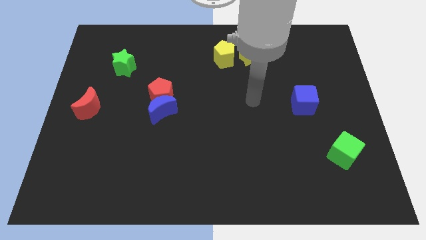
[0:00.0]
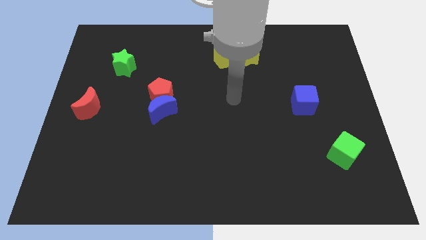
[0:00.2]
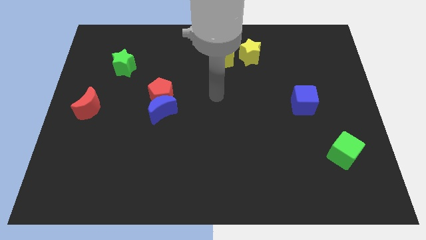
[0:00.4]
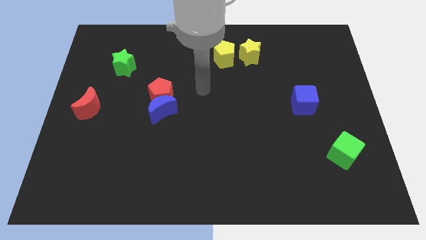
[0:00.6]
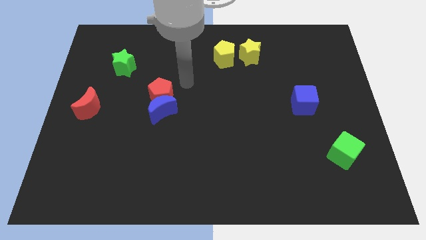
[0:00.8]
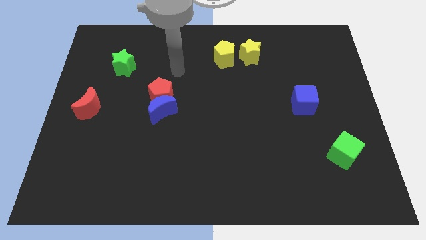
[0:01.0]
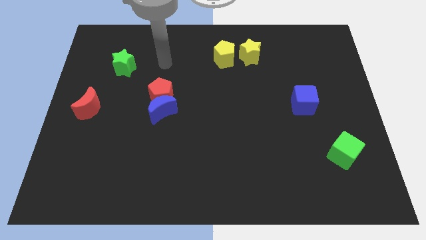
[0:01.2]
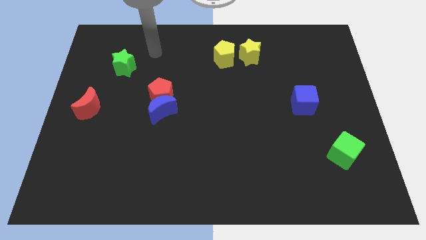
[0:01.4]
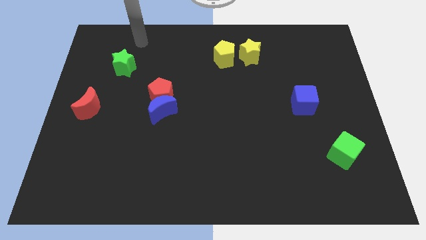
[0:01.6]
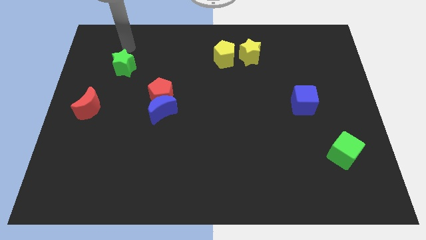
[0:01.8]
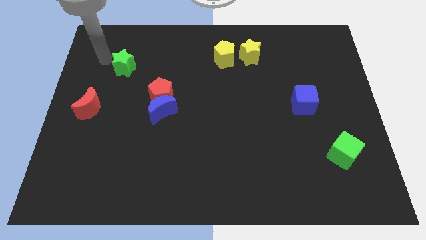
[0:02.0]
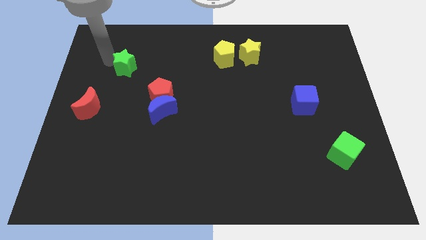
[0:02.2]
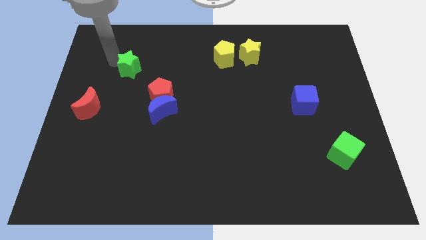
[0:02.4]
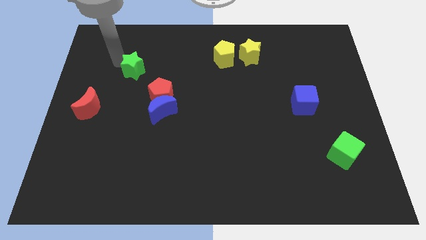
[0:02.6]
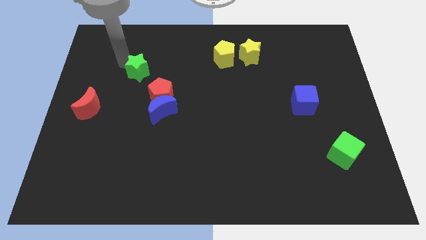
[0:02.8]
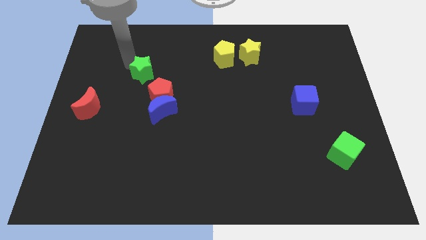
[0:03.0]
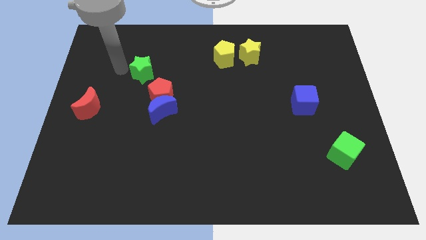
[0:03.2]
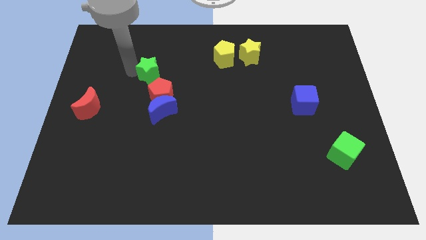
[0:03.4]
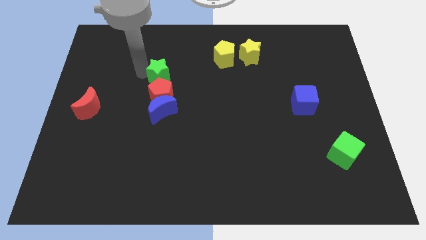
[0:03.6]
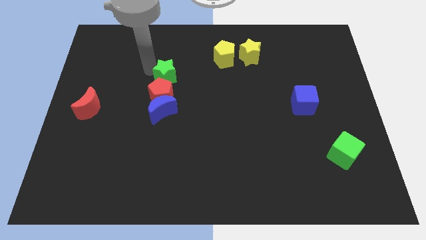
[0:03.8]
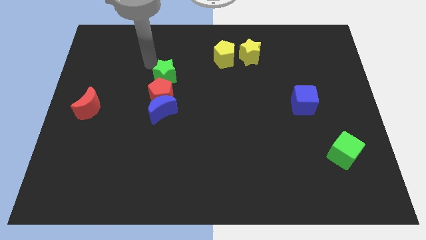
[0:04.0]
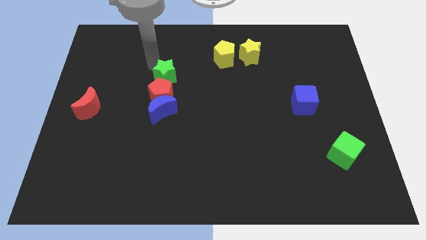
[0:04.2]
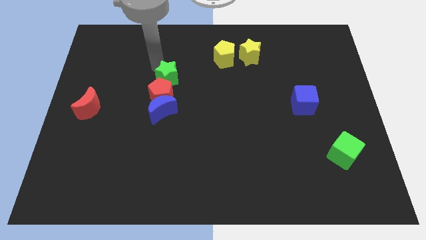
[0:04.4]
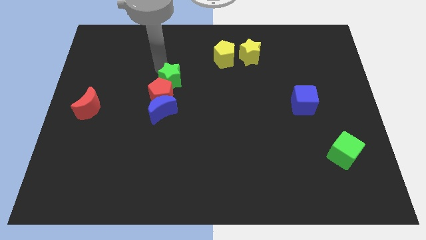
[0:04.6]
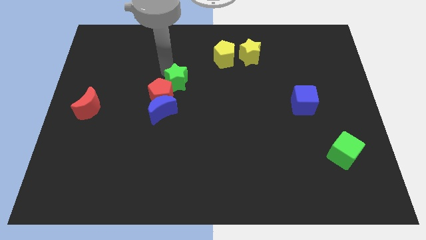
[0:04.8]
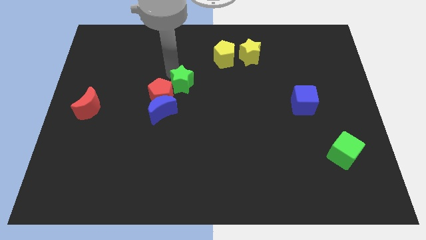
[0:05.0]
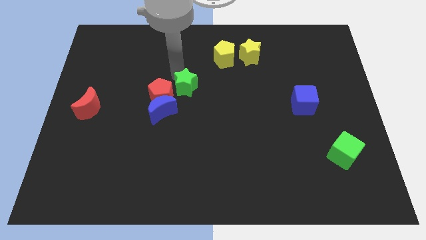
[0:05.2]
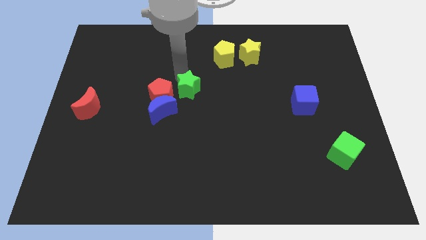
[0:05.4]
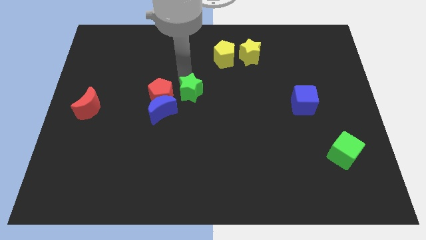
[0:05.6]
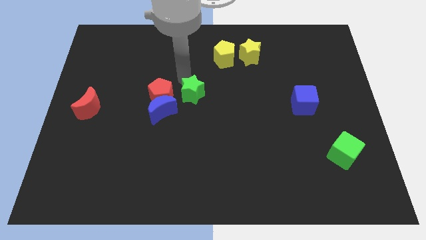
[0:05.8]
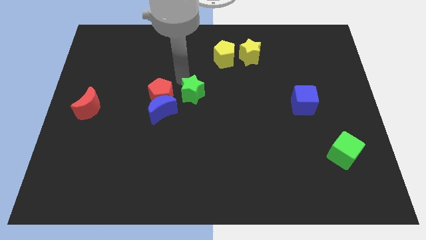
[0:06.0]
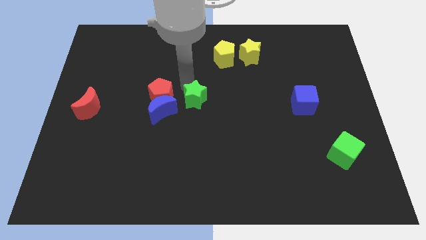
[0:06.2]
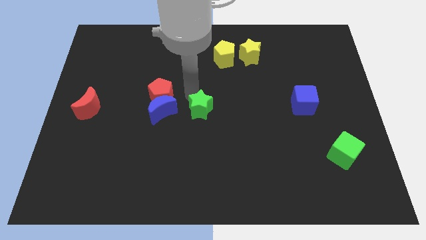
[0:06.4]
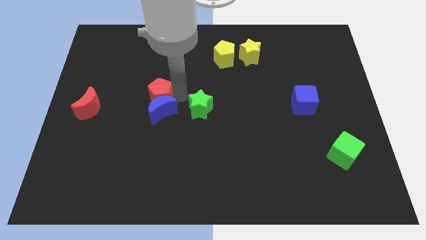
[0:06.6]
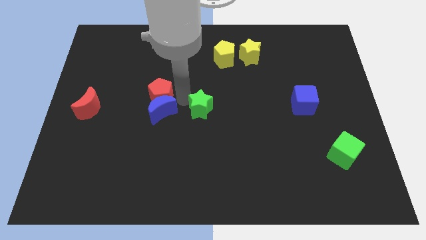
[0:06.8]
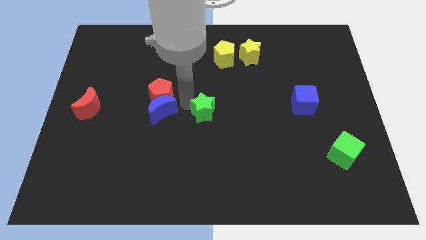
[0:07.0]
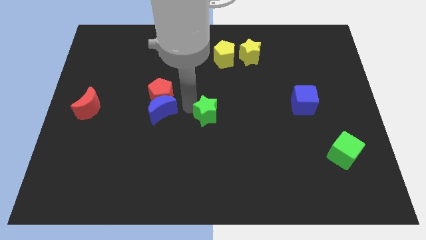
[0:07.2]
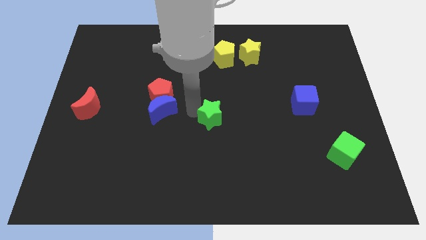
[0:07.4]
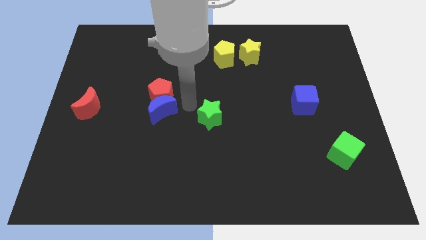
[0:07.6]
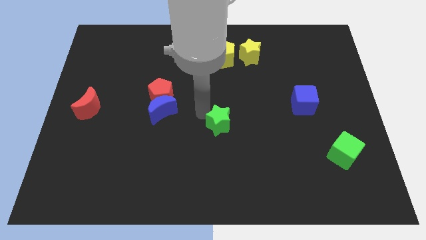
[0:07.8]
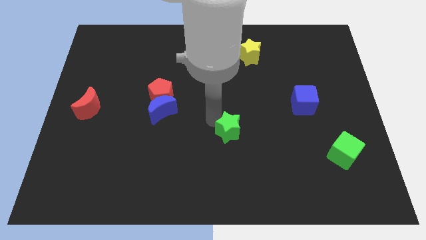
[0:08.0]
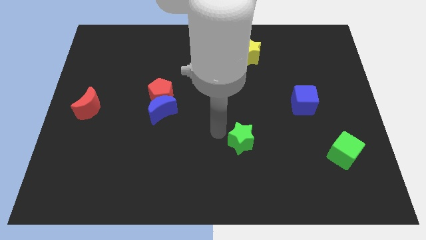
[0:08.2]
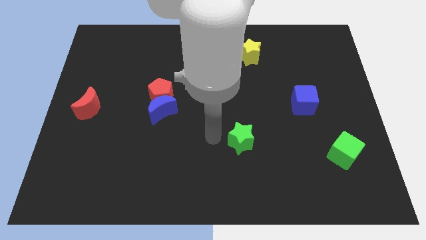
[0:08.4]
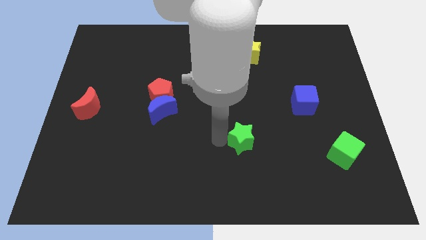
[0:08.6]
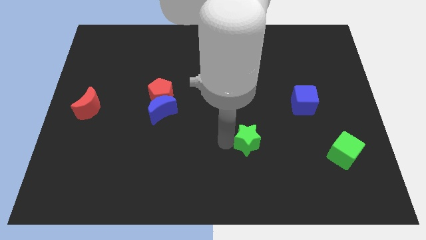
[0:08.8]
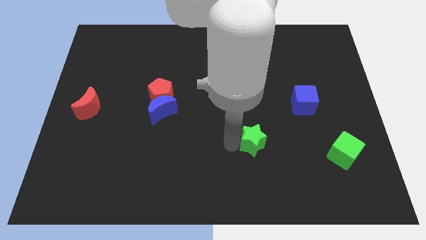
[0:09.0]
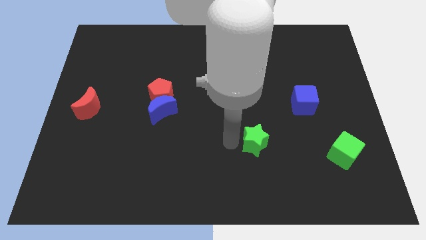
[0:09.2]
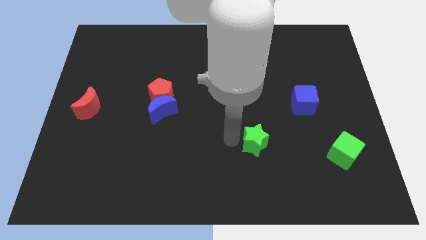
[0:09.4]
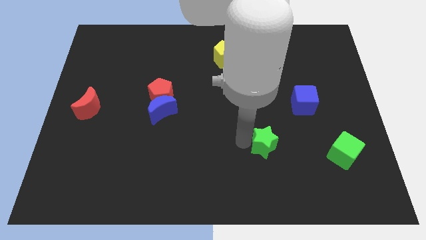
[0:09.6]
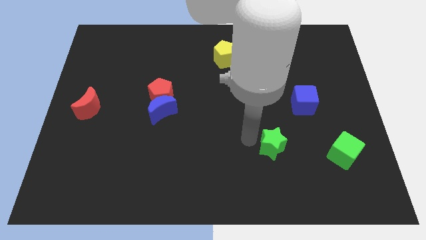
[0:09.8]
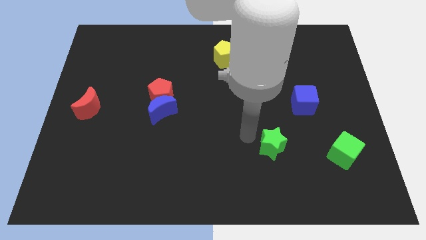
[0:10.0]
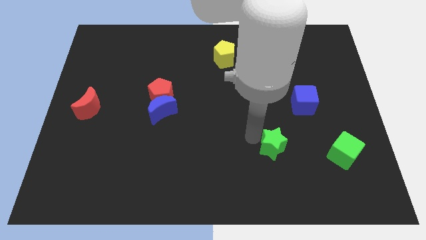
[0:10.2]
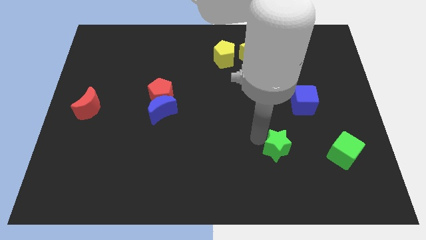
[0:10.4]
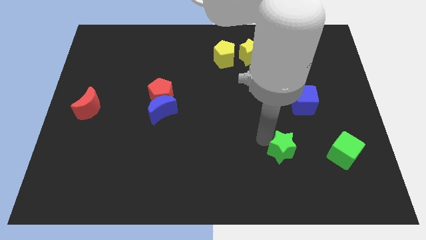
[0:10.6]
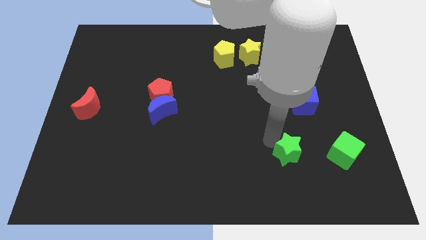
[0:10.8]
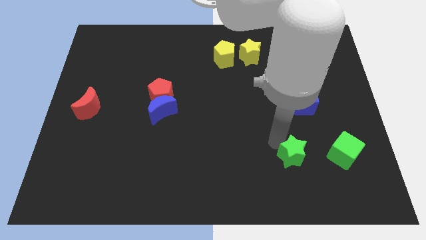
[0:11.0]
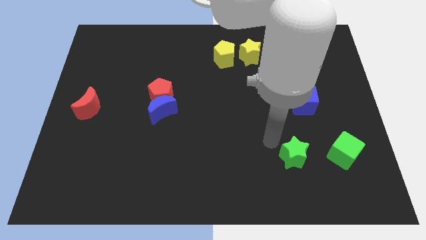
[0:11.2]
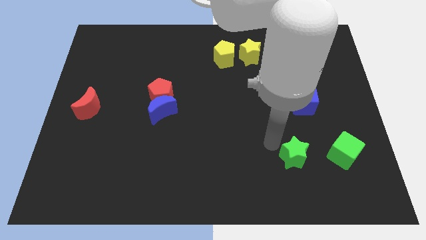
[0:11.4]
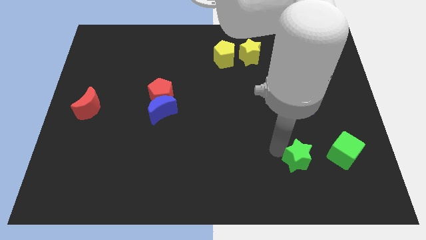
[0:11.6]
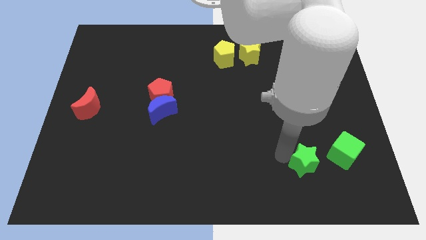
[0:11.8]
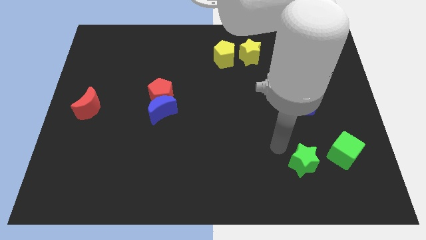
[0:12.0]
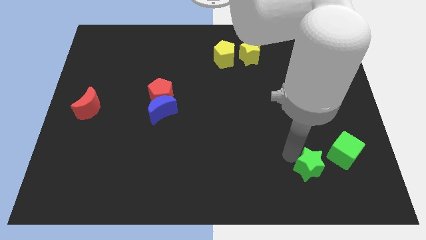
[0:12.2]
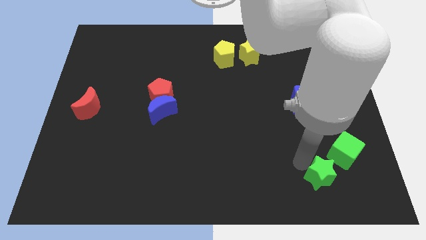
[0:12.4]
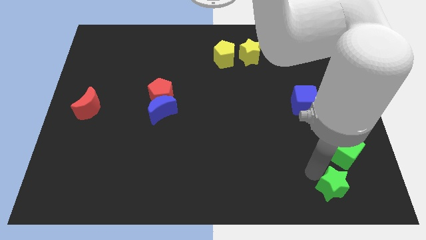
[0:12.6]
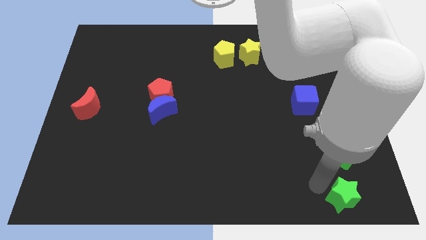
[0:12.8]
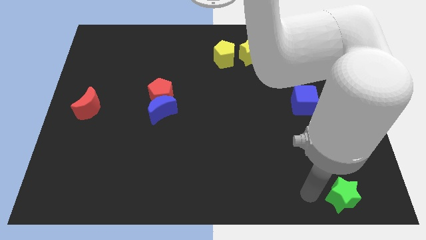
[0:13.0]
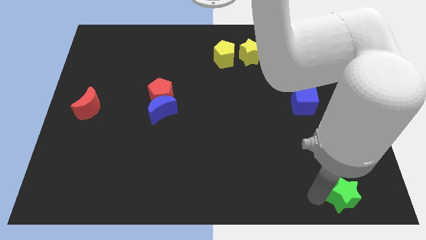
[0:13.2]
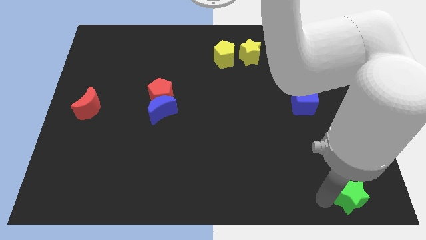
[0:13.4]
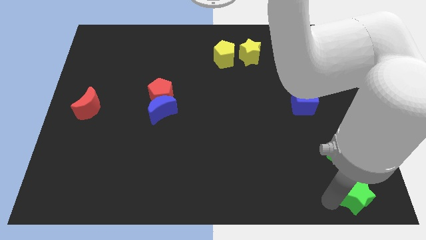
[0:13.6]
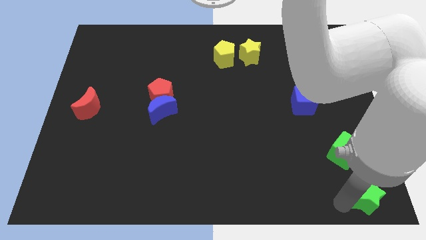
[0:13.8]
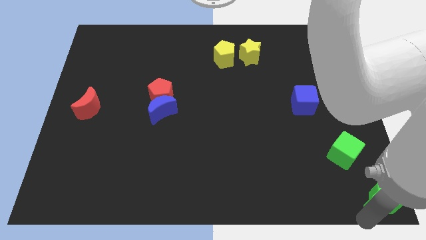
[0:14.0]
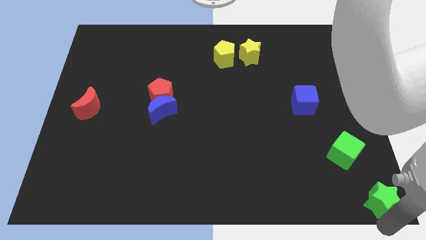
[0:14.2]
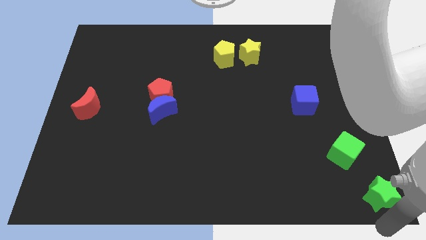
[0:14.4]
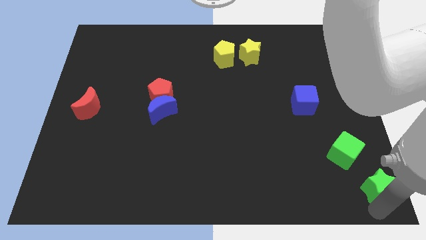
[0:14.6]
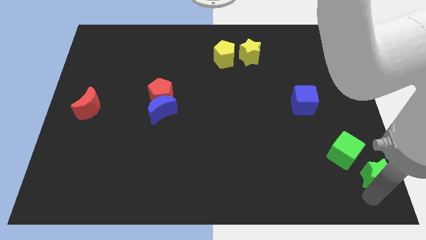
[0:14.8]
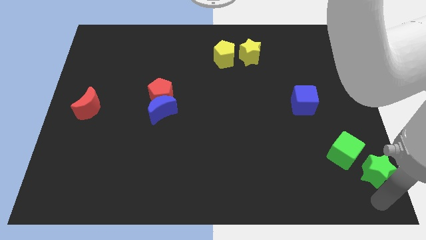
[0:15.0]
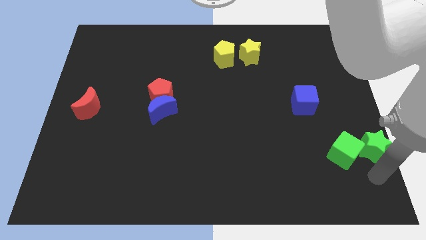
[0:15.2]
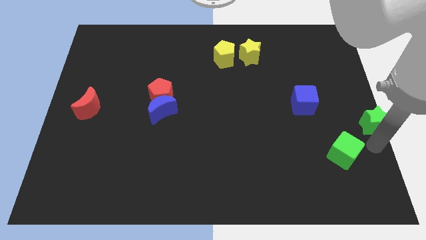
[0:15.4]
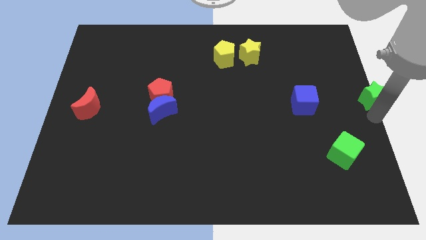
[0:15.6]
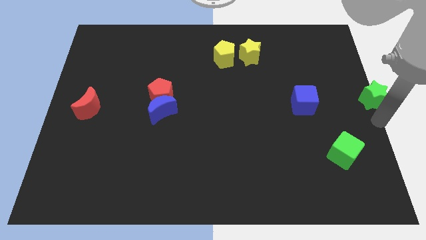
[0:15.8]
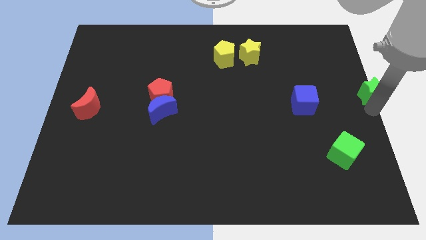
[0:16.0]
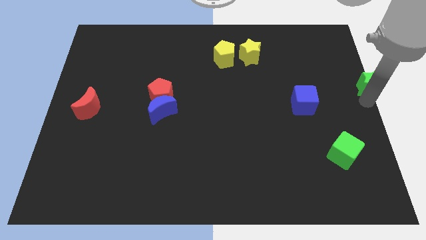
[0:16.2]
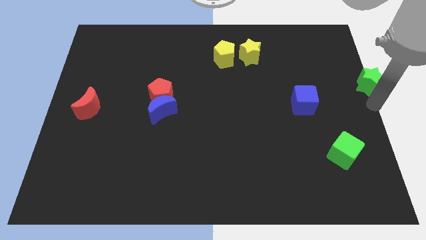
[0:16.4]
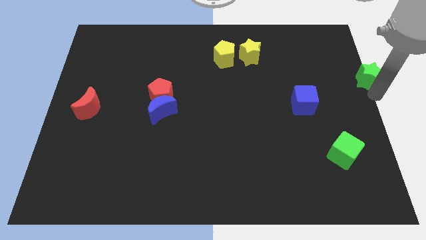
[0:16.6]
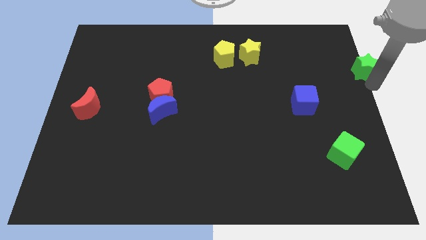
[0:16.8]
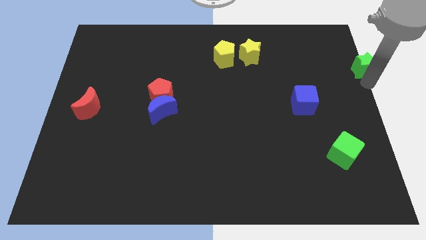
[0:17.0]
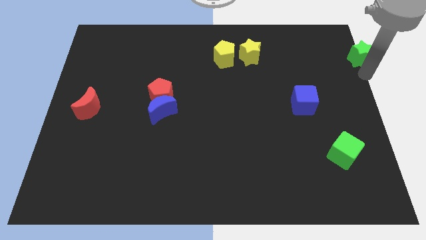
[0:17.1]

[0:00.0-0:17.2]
move the green star to the top right of the board
